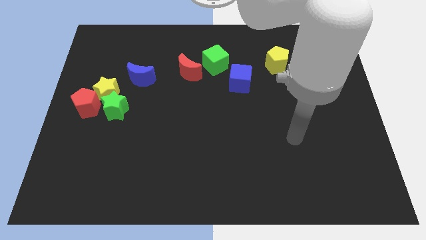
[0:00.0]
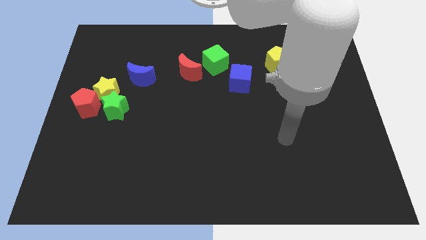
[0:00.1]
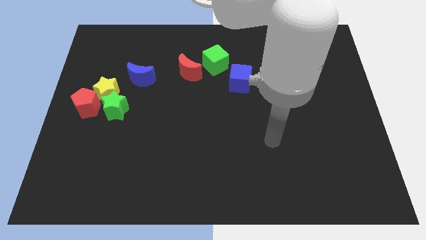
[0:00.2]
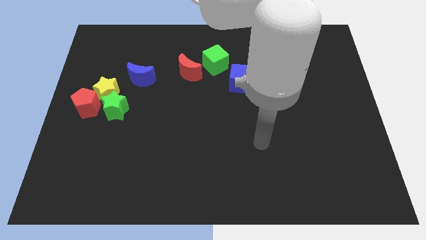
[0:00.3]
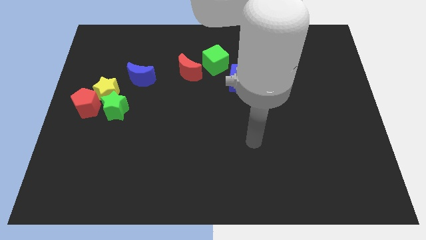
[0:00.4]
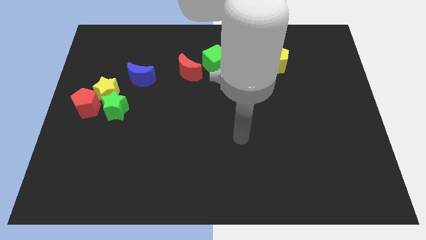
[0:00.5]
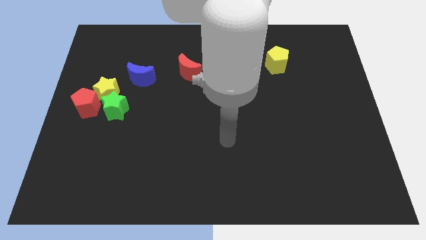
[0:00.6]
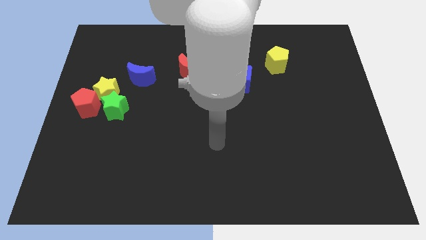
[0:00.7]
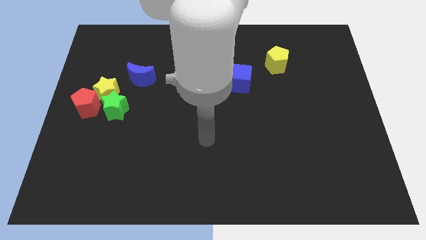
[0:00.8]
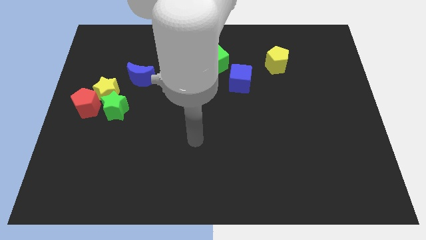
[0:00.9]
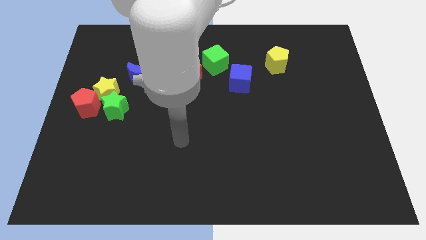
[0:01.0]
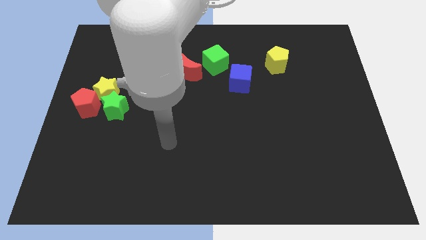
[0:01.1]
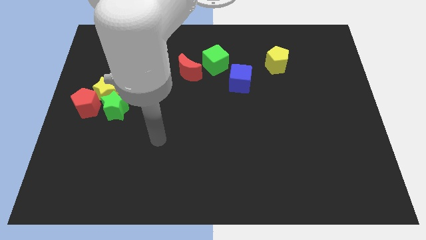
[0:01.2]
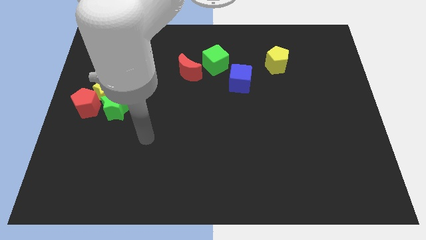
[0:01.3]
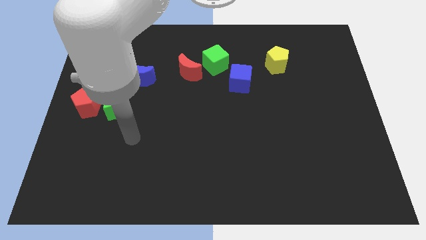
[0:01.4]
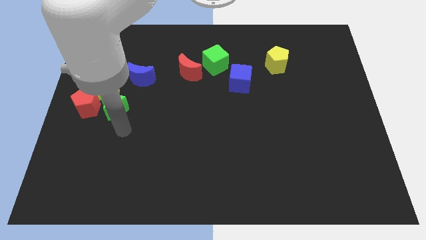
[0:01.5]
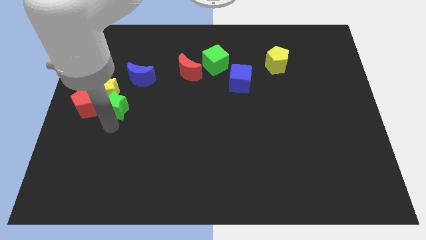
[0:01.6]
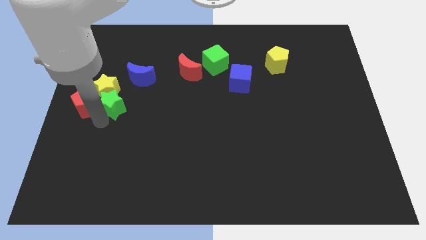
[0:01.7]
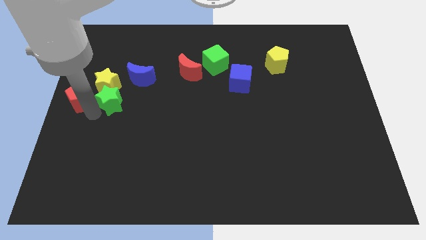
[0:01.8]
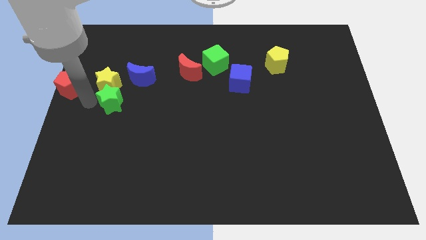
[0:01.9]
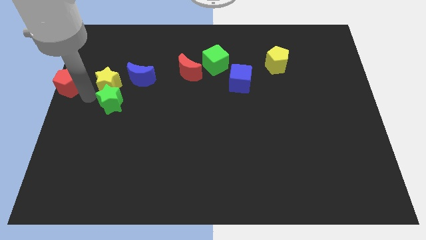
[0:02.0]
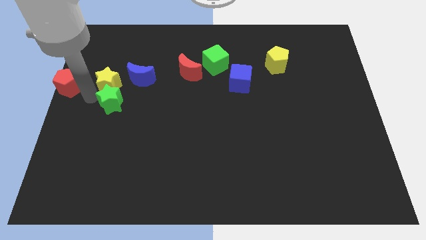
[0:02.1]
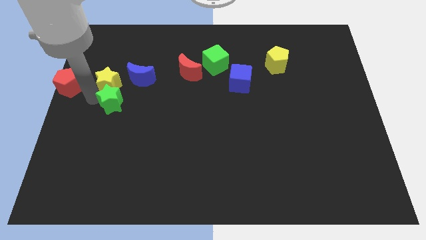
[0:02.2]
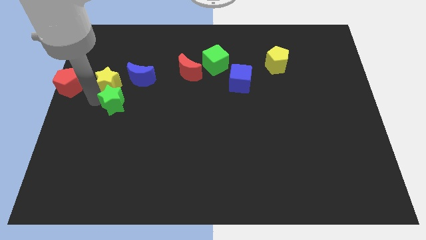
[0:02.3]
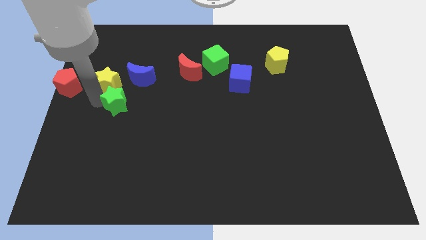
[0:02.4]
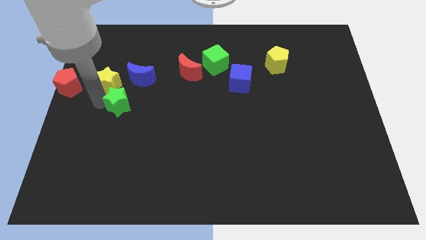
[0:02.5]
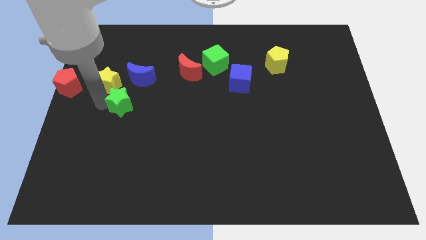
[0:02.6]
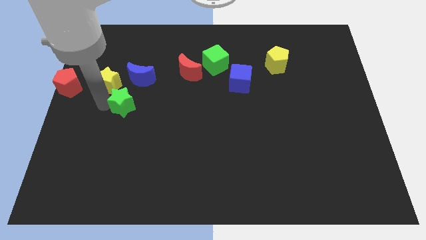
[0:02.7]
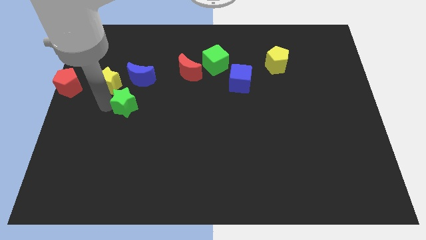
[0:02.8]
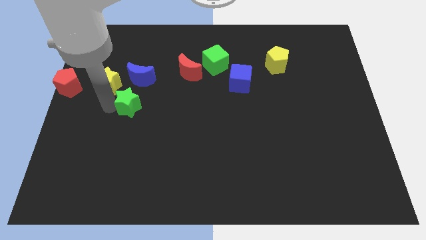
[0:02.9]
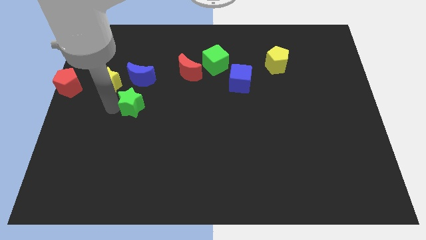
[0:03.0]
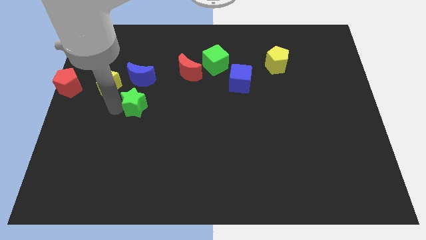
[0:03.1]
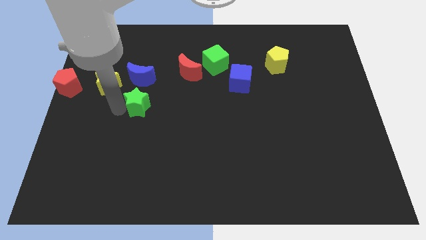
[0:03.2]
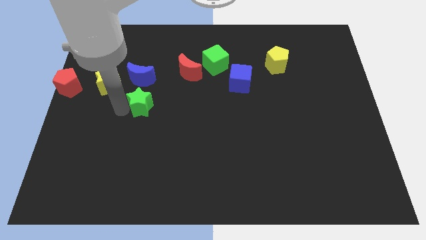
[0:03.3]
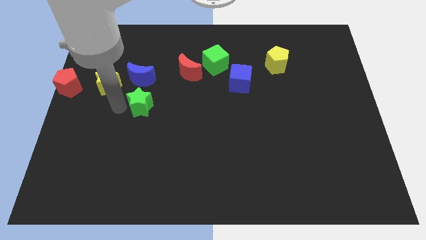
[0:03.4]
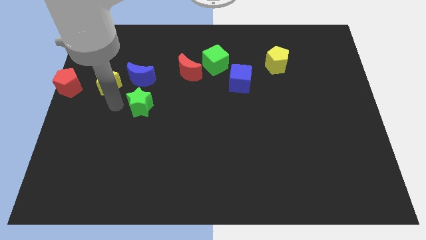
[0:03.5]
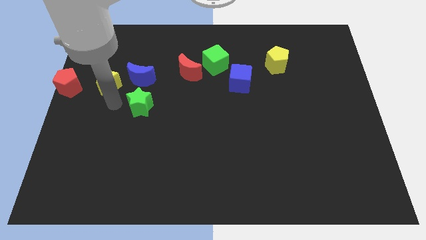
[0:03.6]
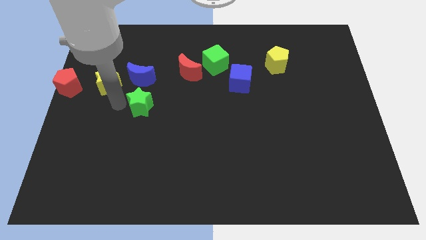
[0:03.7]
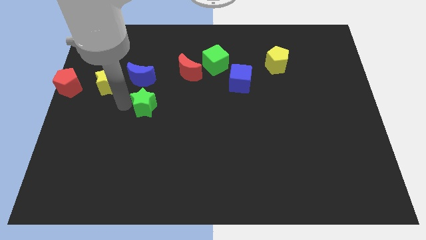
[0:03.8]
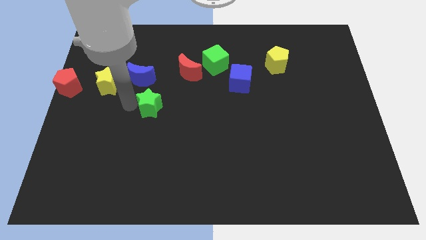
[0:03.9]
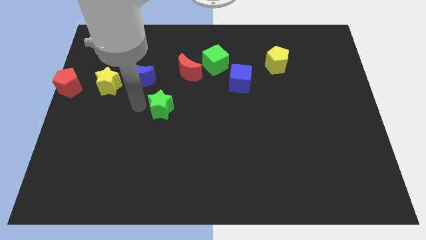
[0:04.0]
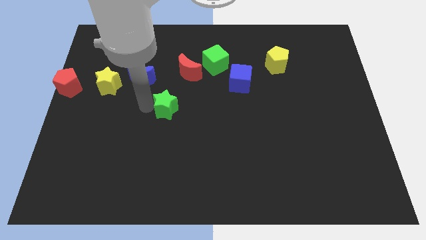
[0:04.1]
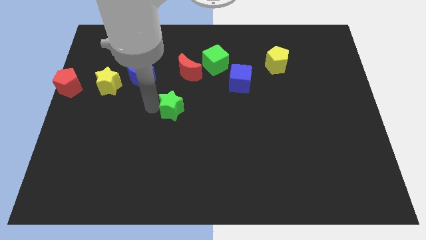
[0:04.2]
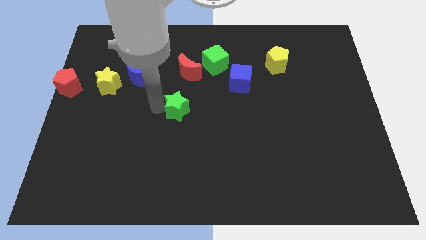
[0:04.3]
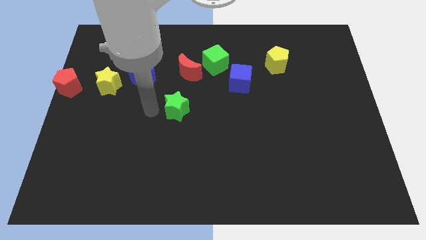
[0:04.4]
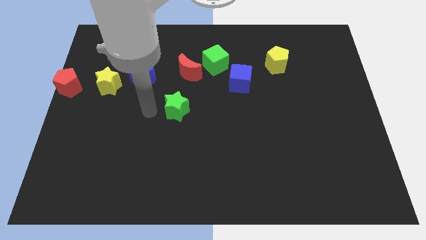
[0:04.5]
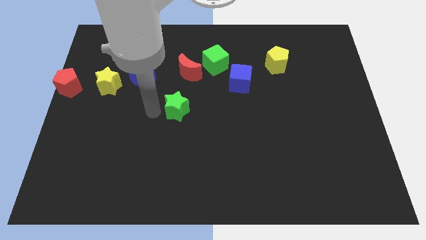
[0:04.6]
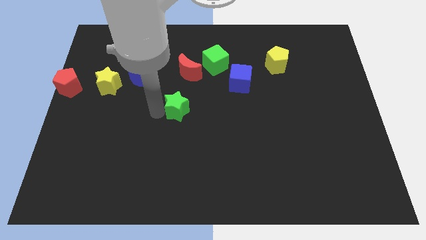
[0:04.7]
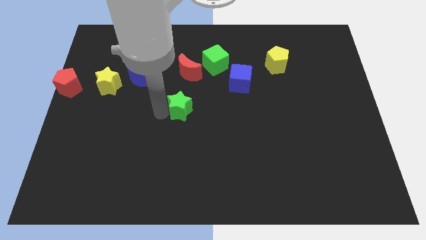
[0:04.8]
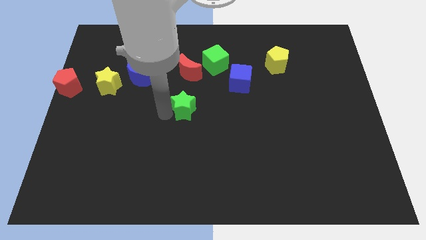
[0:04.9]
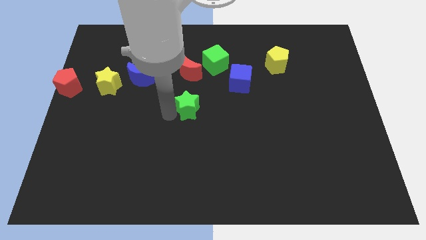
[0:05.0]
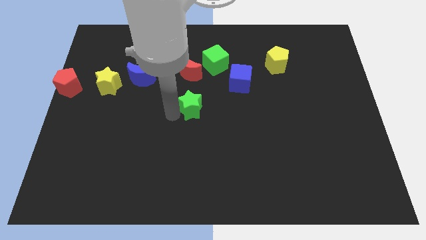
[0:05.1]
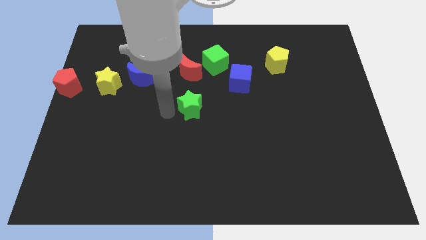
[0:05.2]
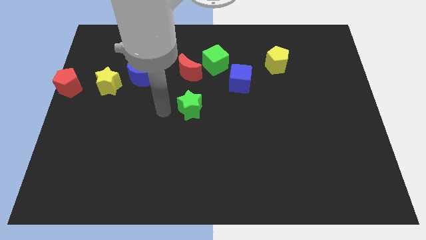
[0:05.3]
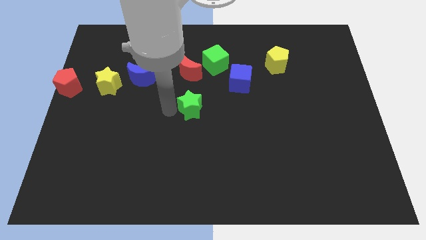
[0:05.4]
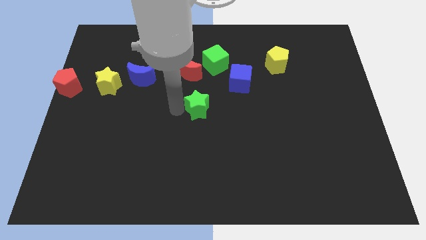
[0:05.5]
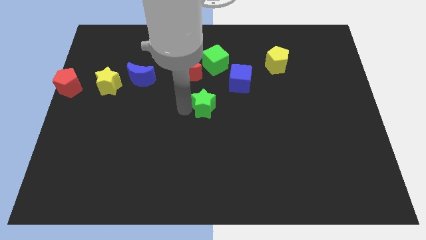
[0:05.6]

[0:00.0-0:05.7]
move the green star to the right

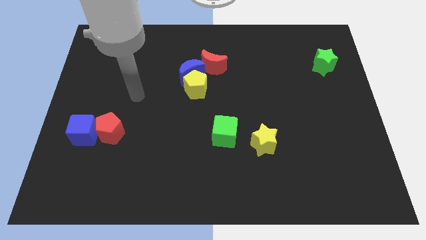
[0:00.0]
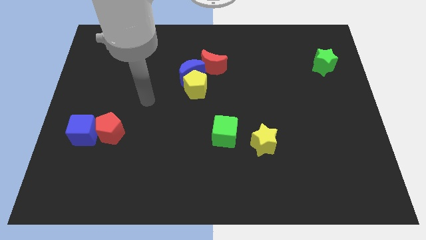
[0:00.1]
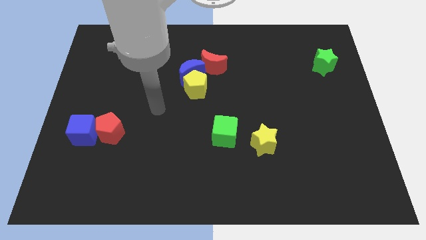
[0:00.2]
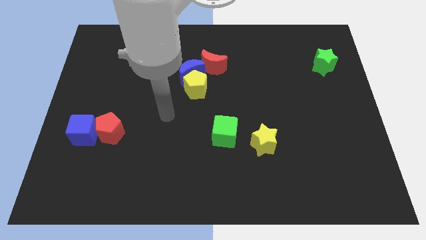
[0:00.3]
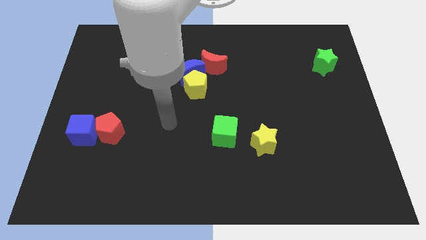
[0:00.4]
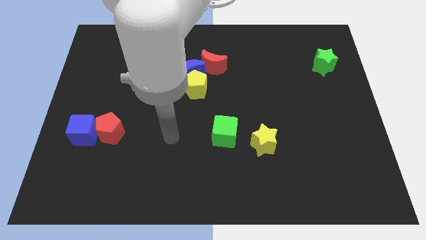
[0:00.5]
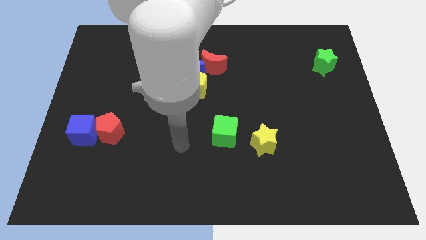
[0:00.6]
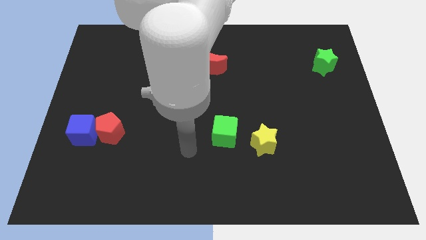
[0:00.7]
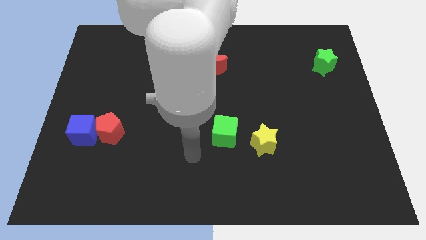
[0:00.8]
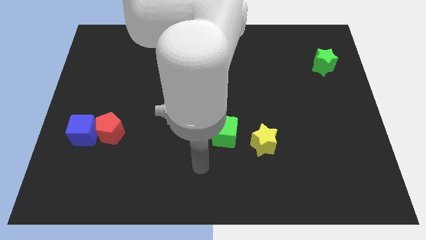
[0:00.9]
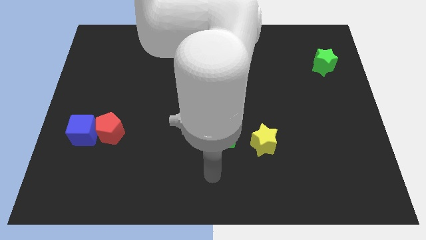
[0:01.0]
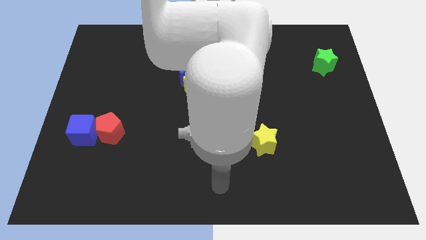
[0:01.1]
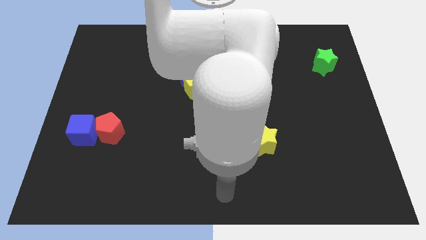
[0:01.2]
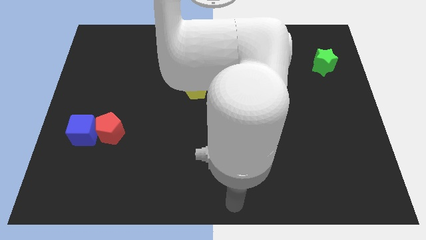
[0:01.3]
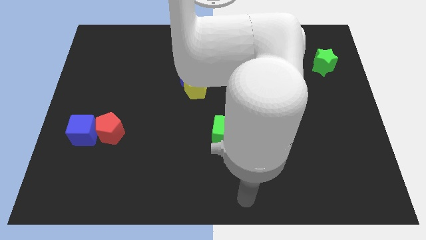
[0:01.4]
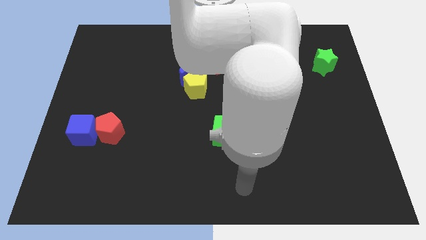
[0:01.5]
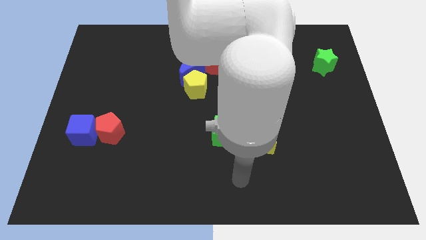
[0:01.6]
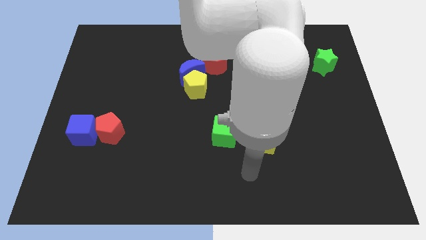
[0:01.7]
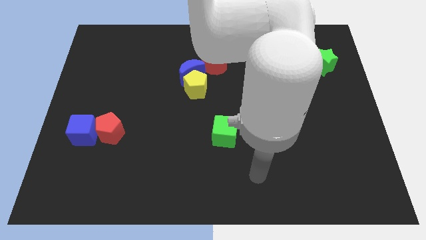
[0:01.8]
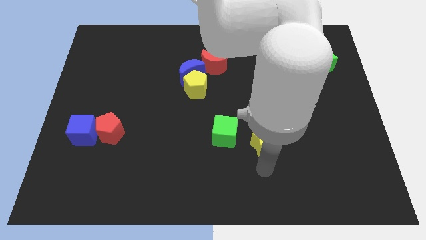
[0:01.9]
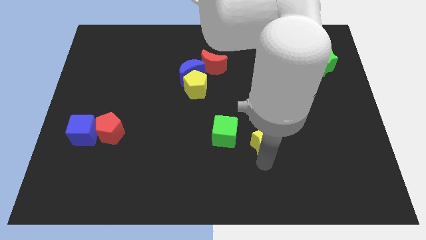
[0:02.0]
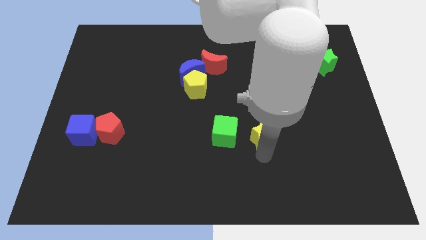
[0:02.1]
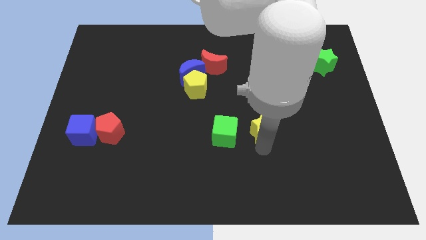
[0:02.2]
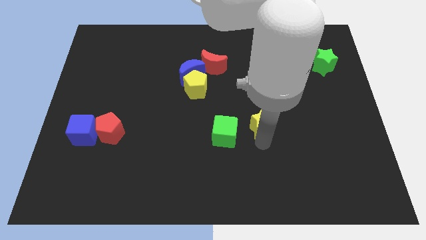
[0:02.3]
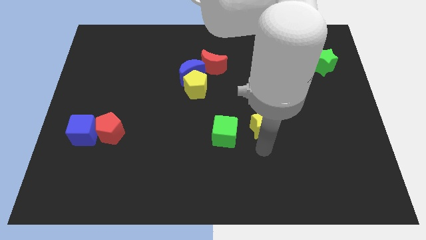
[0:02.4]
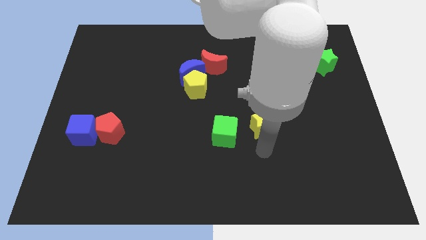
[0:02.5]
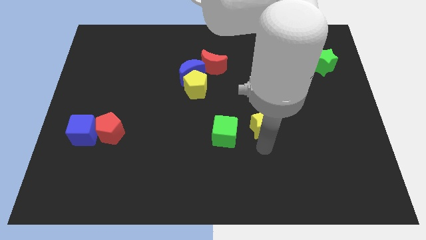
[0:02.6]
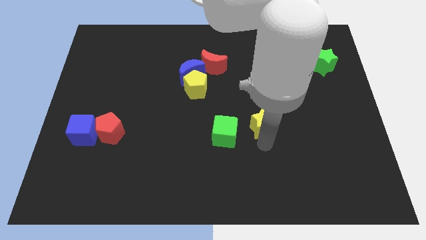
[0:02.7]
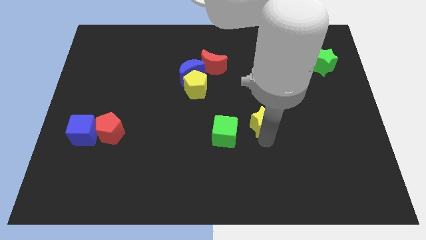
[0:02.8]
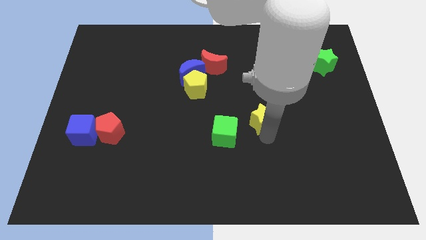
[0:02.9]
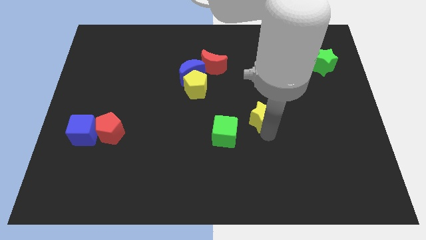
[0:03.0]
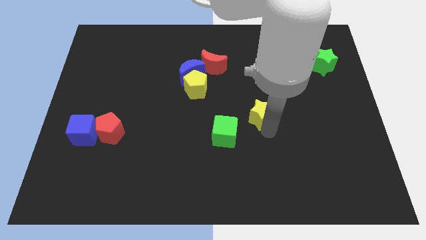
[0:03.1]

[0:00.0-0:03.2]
slide the yellow star somewhat up
